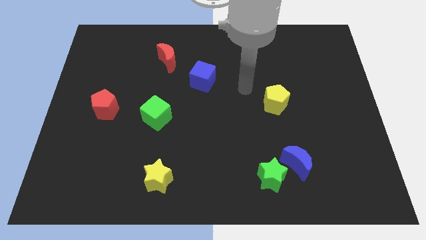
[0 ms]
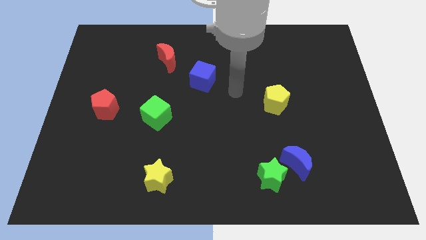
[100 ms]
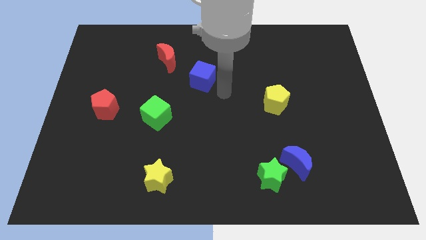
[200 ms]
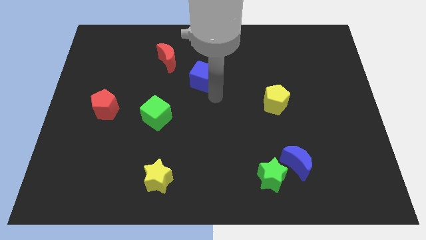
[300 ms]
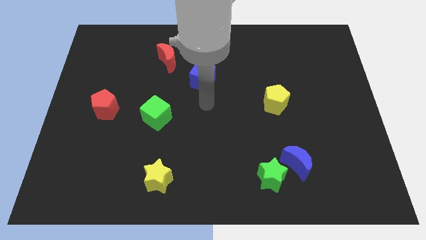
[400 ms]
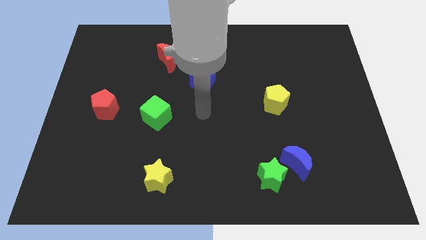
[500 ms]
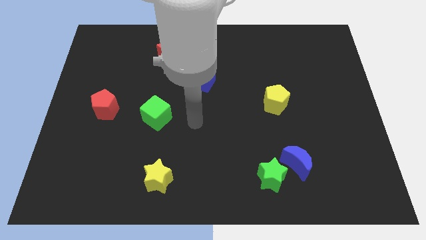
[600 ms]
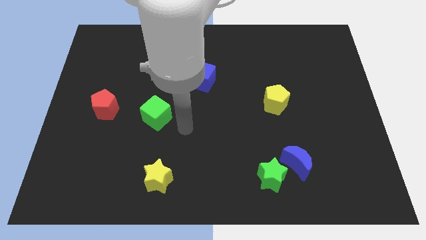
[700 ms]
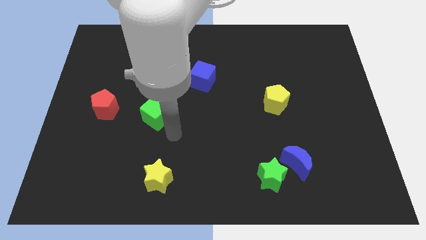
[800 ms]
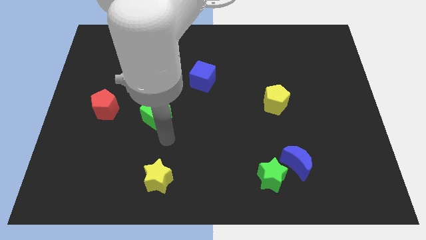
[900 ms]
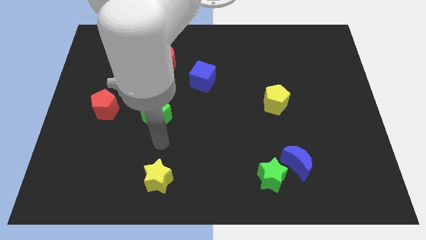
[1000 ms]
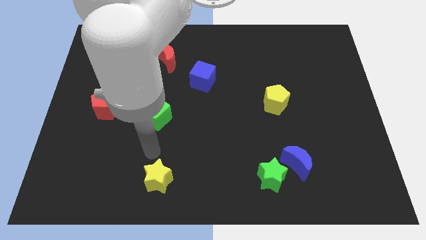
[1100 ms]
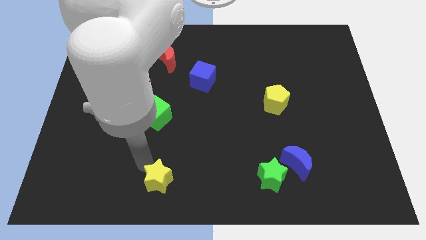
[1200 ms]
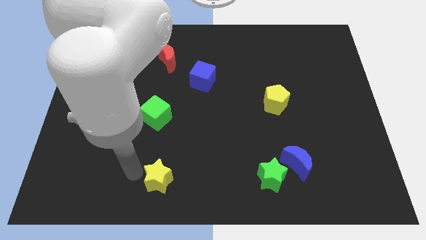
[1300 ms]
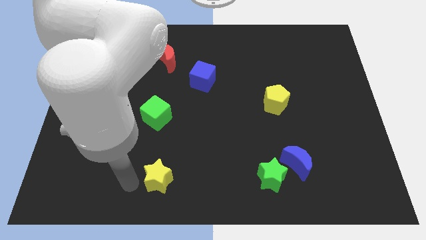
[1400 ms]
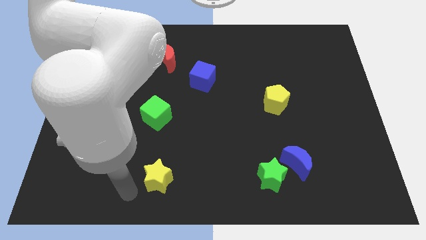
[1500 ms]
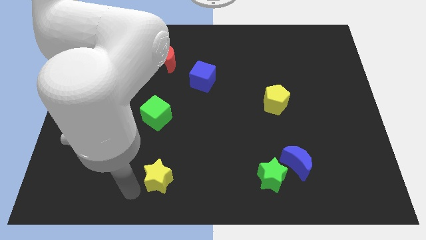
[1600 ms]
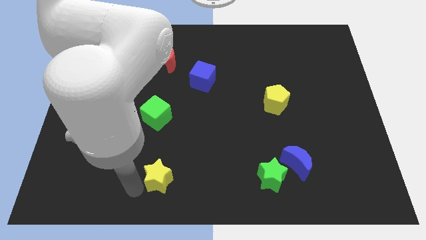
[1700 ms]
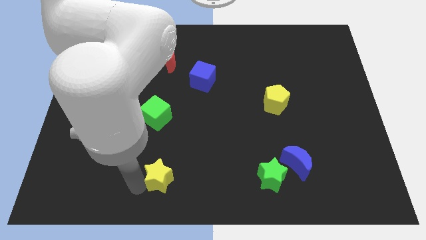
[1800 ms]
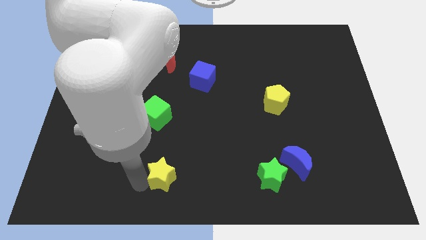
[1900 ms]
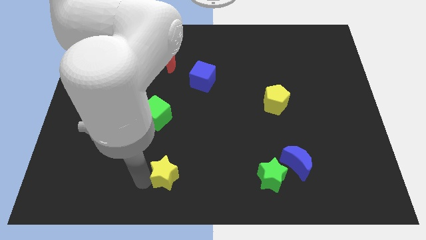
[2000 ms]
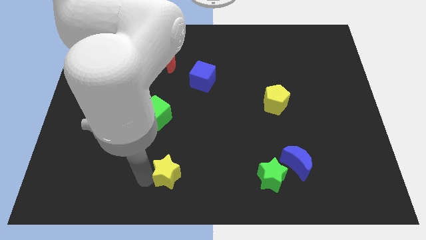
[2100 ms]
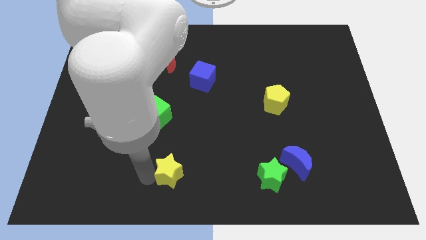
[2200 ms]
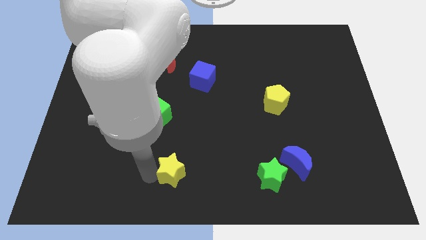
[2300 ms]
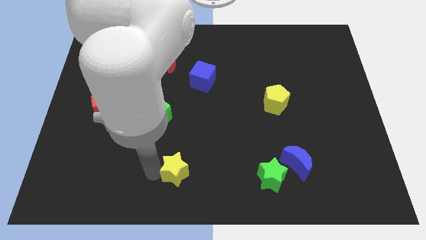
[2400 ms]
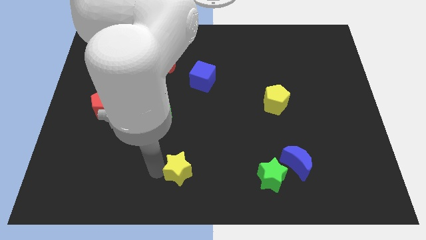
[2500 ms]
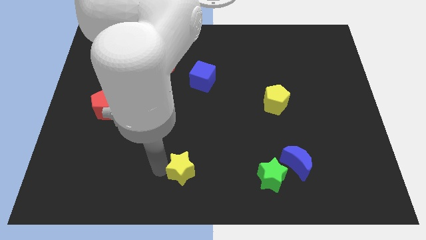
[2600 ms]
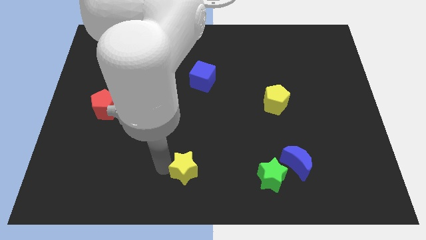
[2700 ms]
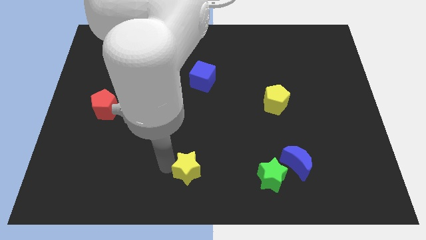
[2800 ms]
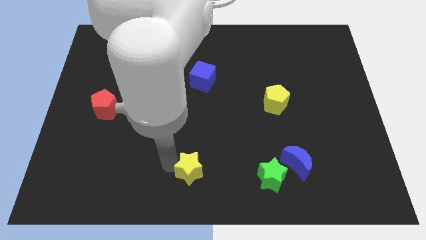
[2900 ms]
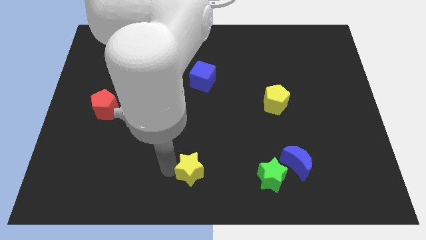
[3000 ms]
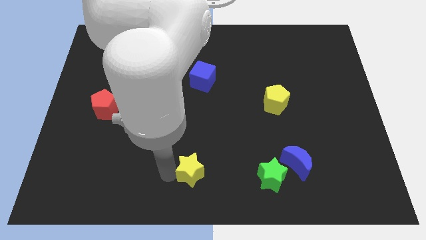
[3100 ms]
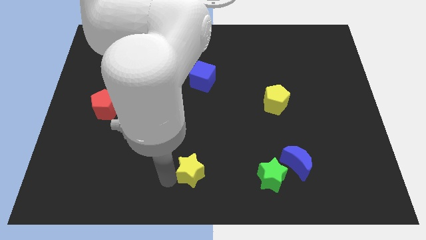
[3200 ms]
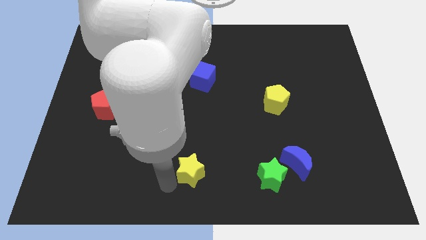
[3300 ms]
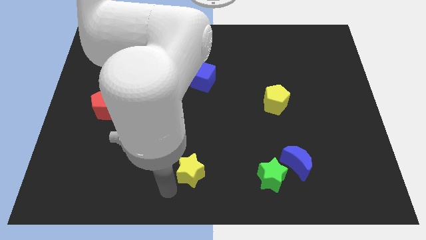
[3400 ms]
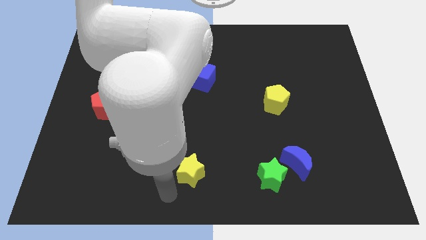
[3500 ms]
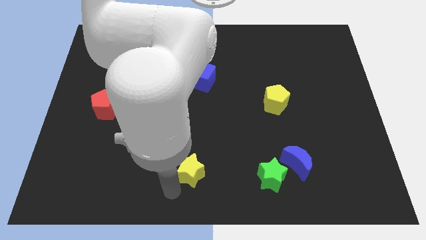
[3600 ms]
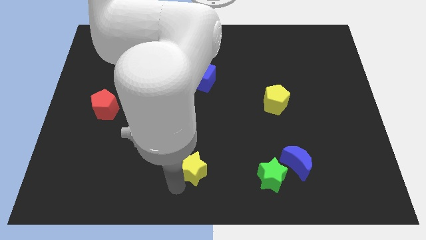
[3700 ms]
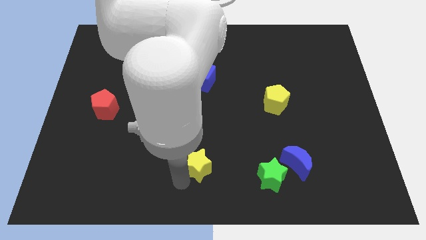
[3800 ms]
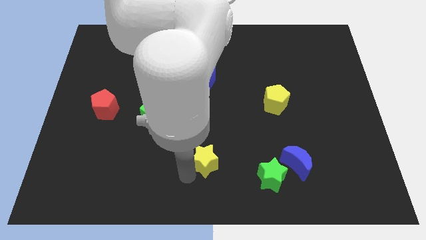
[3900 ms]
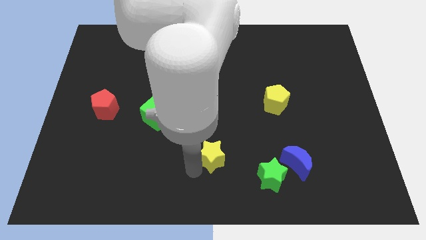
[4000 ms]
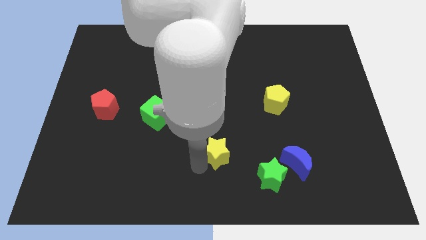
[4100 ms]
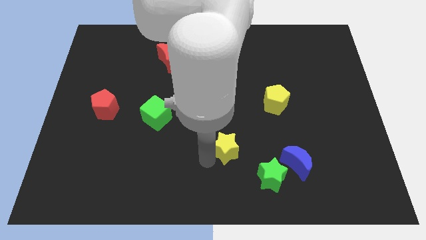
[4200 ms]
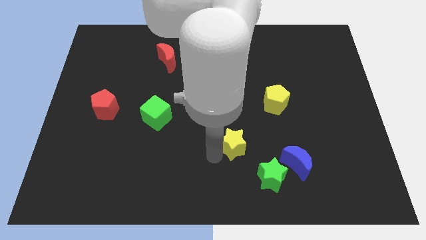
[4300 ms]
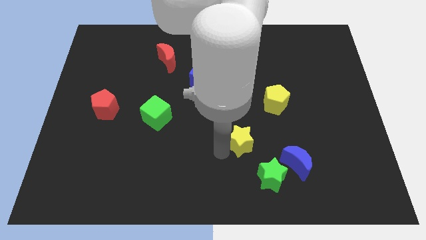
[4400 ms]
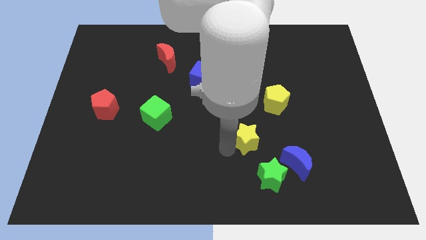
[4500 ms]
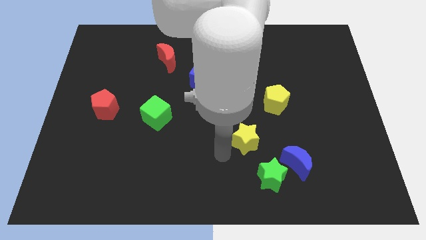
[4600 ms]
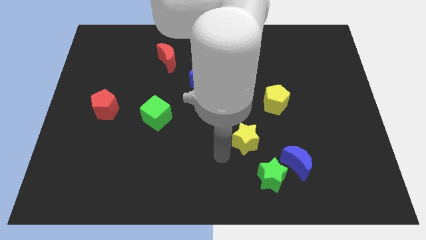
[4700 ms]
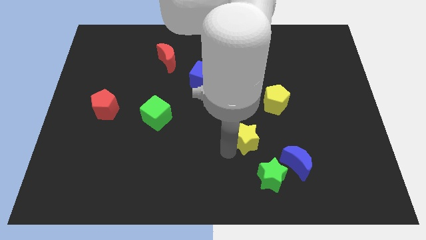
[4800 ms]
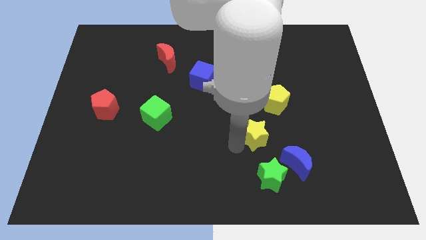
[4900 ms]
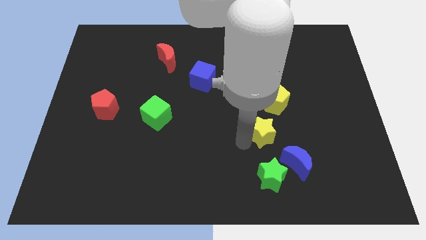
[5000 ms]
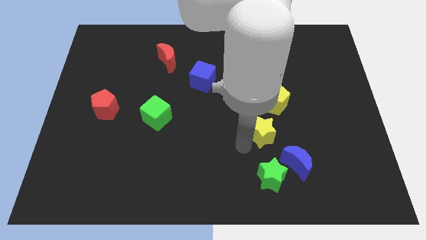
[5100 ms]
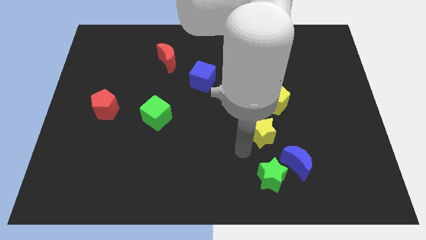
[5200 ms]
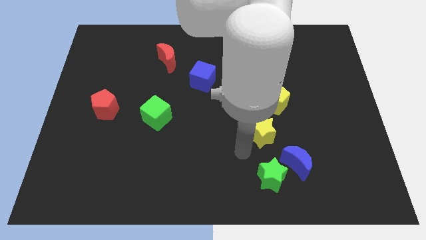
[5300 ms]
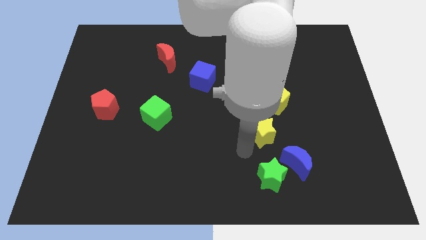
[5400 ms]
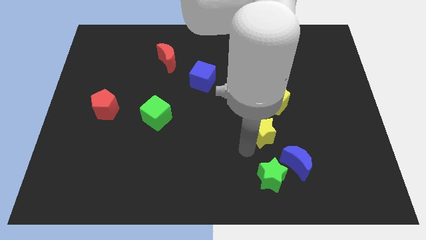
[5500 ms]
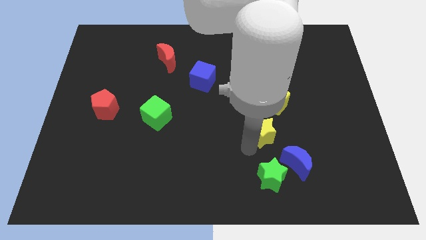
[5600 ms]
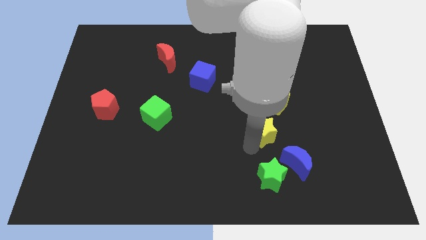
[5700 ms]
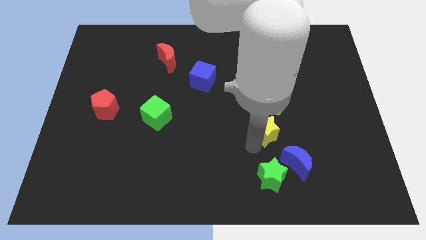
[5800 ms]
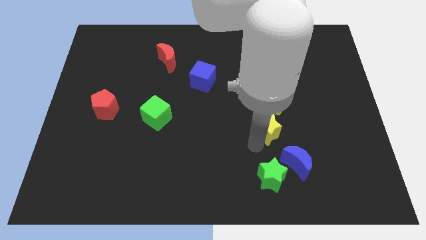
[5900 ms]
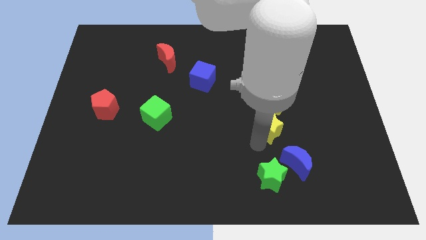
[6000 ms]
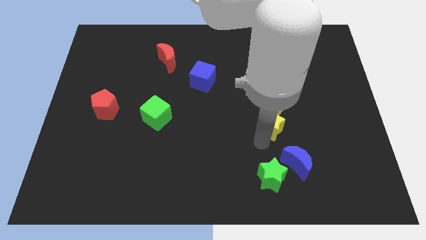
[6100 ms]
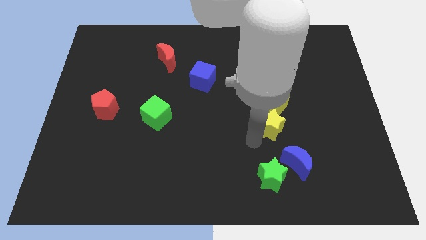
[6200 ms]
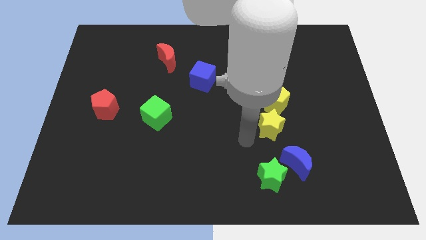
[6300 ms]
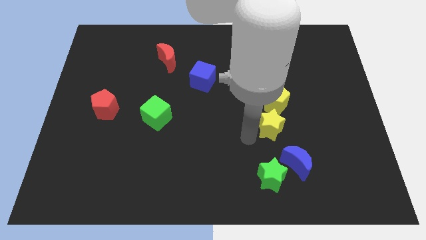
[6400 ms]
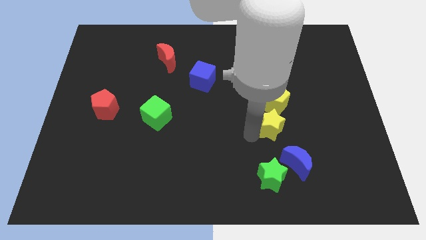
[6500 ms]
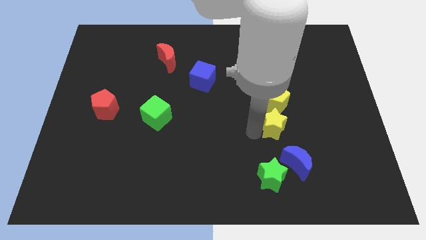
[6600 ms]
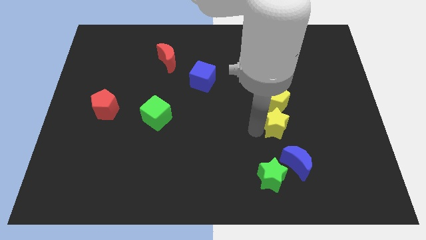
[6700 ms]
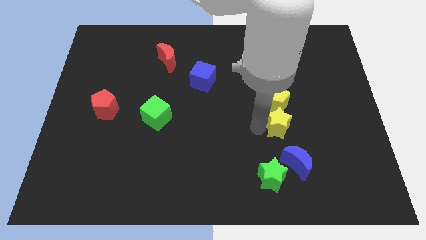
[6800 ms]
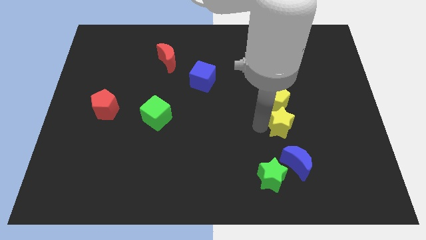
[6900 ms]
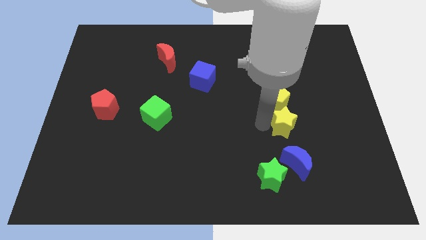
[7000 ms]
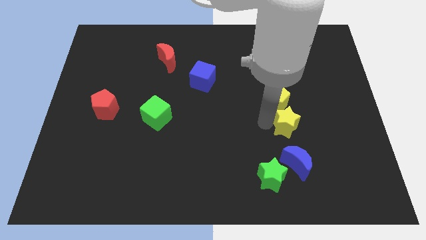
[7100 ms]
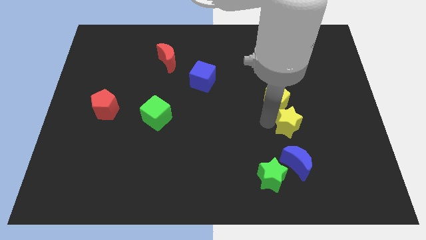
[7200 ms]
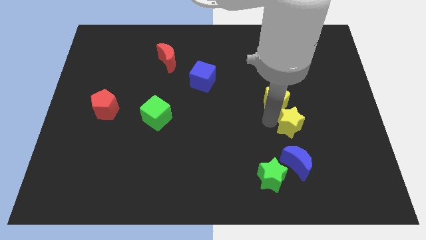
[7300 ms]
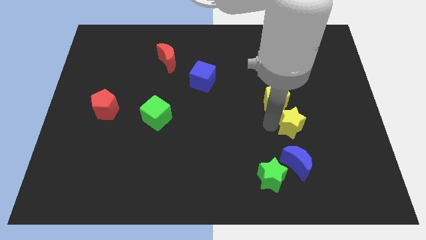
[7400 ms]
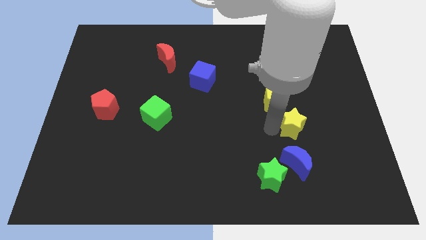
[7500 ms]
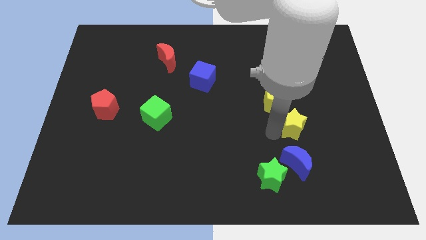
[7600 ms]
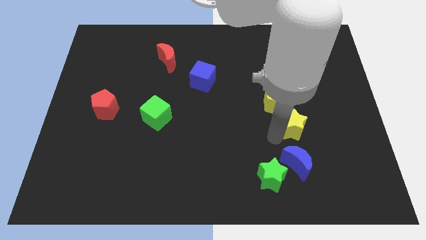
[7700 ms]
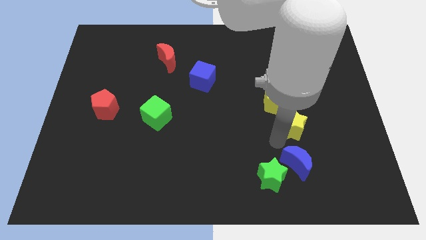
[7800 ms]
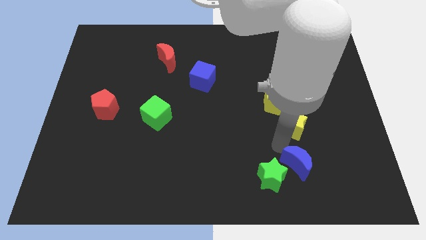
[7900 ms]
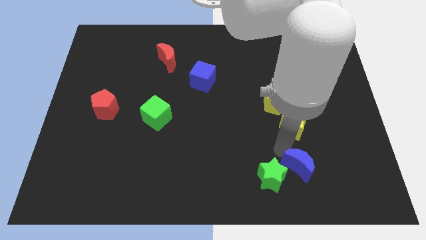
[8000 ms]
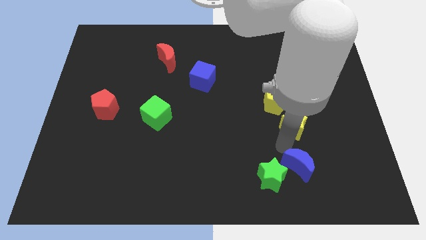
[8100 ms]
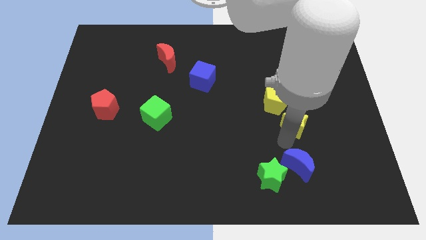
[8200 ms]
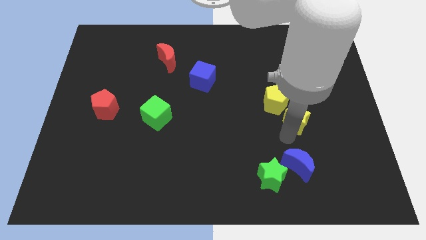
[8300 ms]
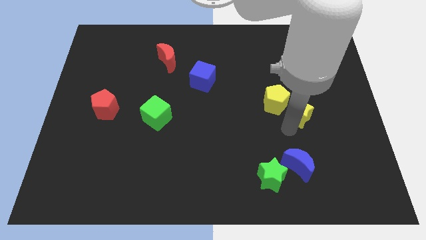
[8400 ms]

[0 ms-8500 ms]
push the yellow star to the right side of the yellow pentagon
